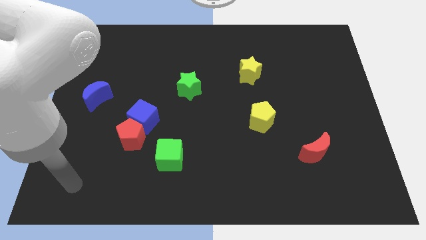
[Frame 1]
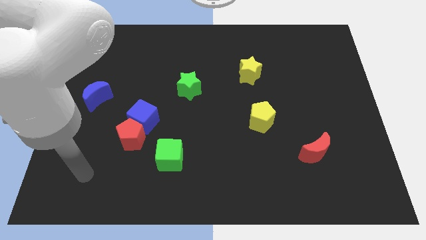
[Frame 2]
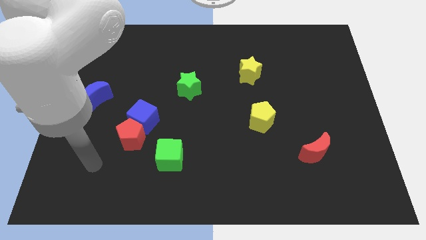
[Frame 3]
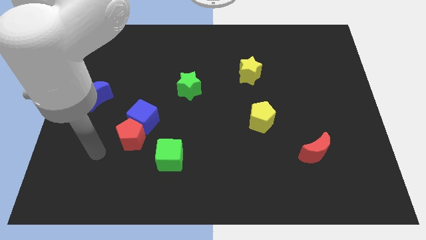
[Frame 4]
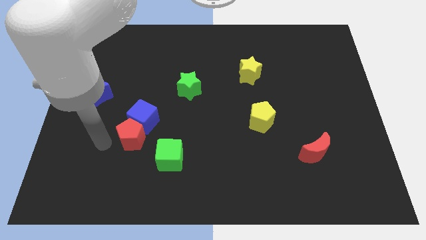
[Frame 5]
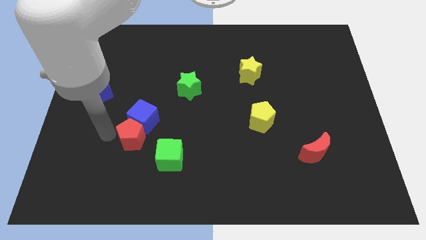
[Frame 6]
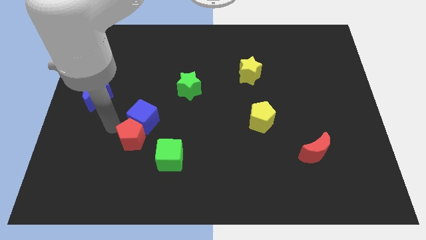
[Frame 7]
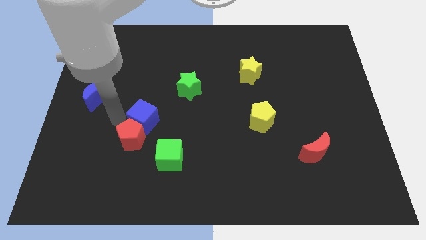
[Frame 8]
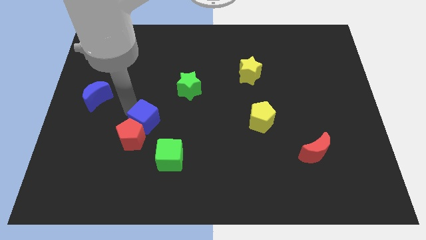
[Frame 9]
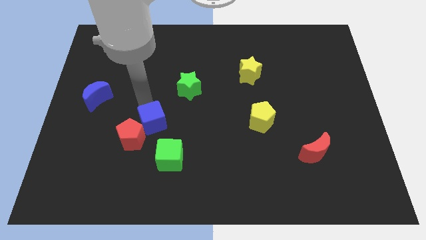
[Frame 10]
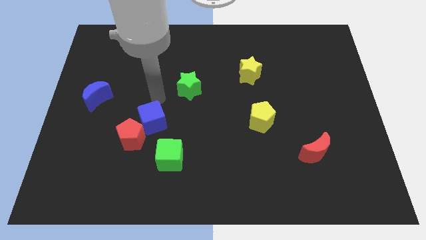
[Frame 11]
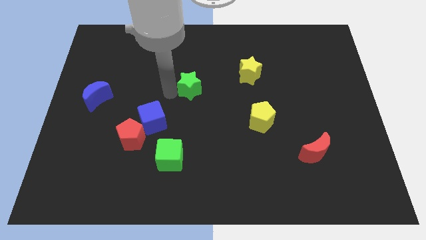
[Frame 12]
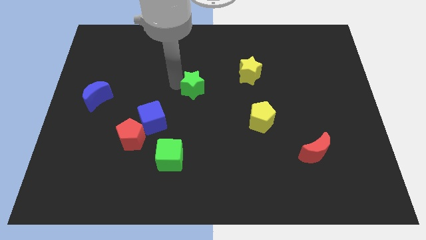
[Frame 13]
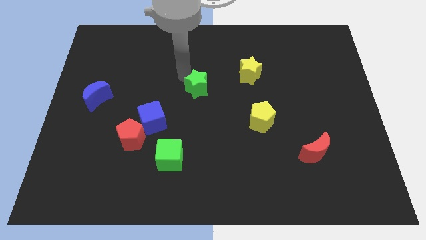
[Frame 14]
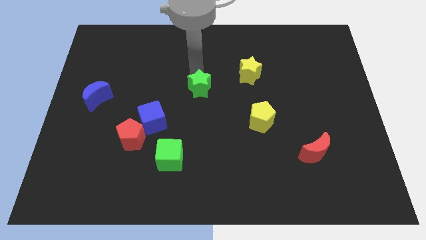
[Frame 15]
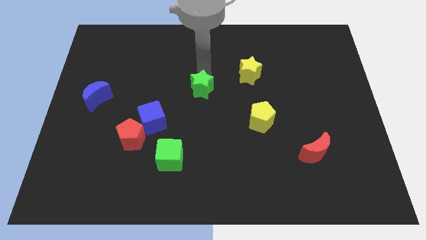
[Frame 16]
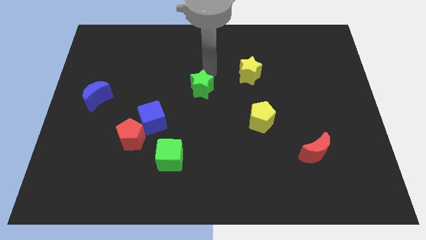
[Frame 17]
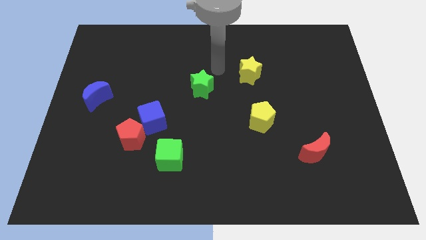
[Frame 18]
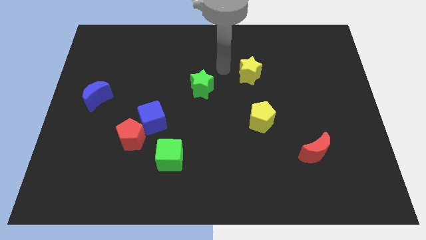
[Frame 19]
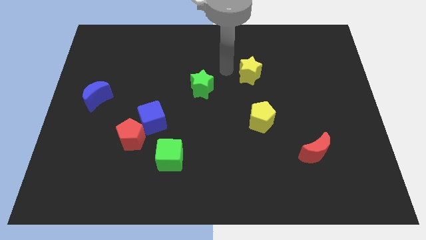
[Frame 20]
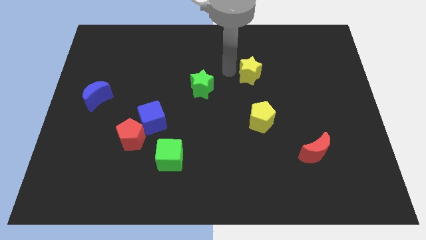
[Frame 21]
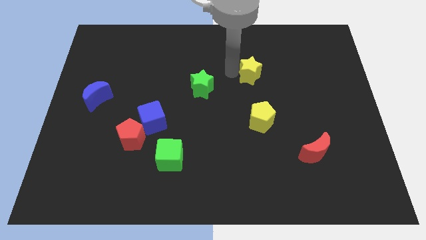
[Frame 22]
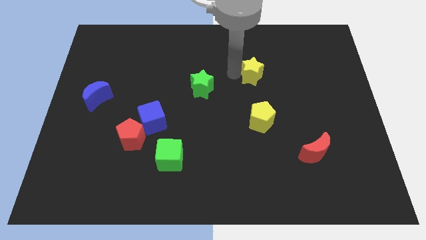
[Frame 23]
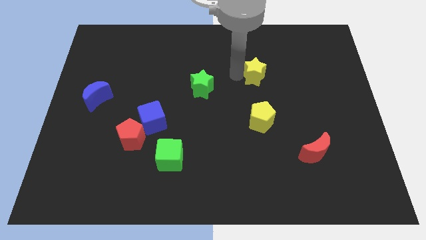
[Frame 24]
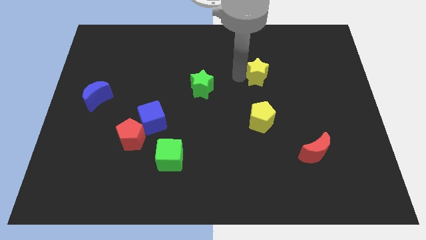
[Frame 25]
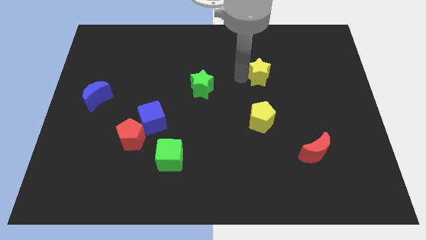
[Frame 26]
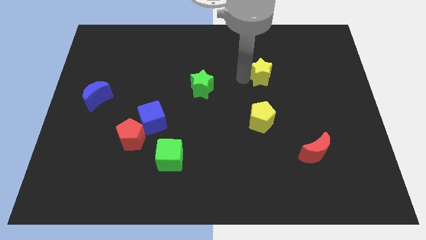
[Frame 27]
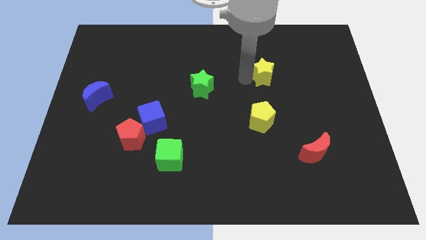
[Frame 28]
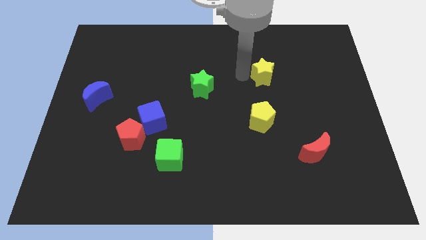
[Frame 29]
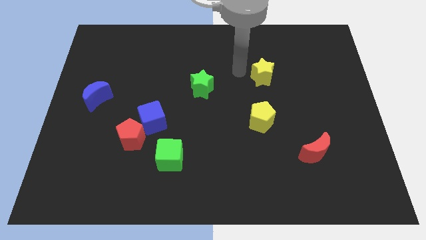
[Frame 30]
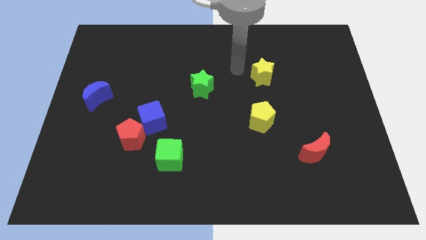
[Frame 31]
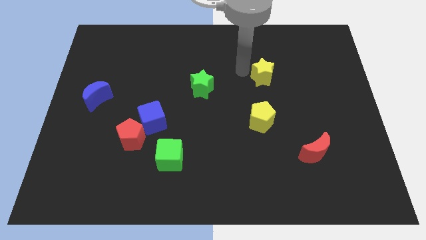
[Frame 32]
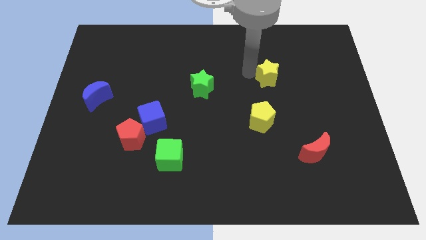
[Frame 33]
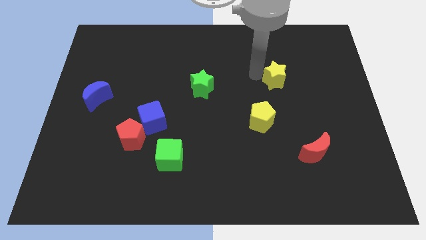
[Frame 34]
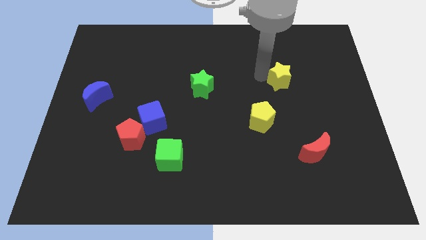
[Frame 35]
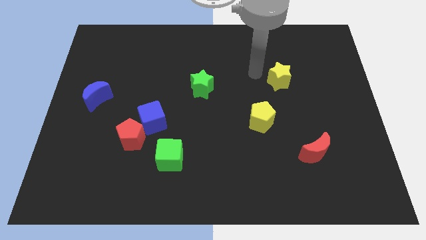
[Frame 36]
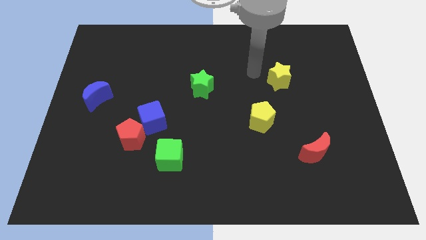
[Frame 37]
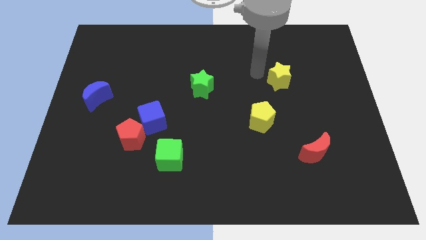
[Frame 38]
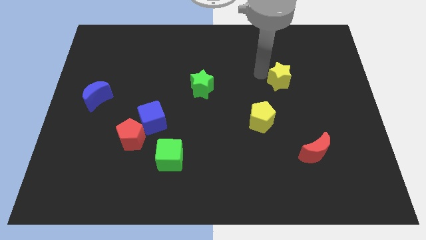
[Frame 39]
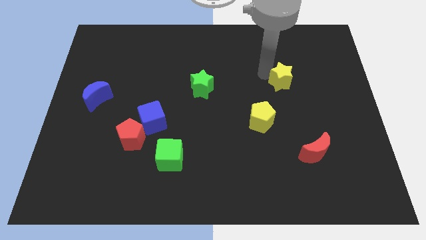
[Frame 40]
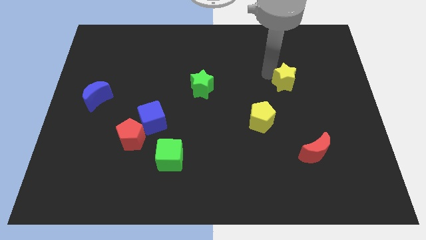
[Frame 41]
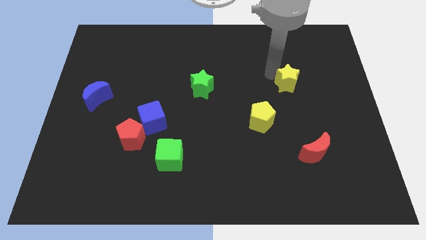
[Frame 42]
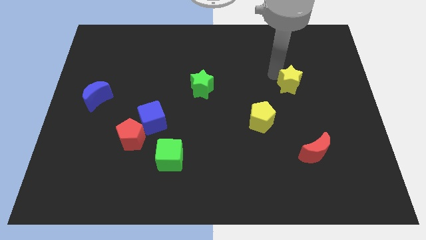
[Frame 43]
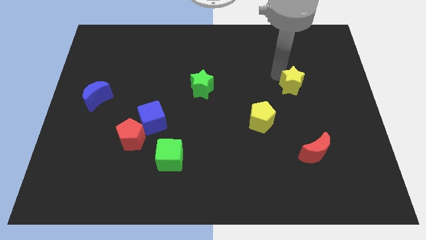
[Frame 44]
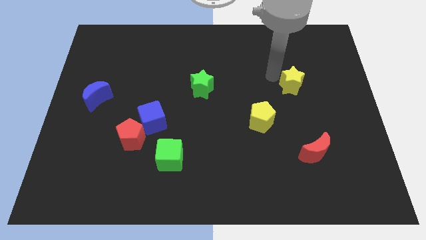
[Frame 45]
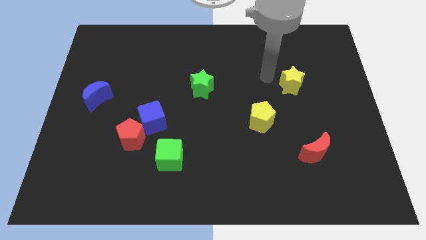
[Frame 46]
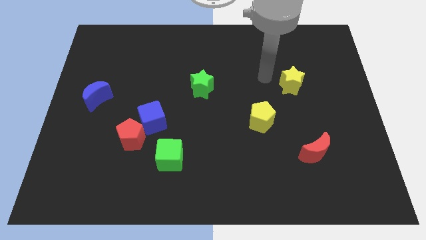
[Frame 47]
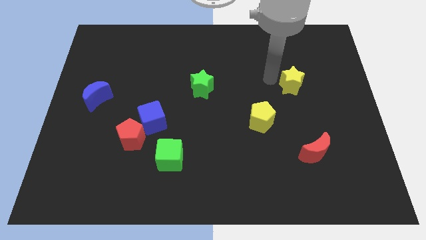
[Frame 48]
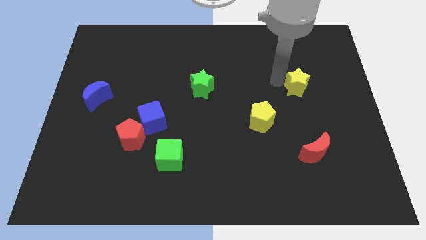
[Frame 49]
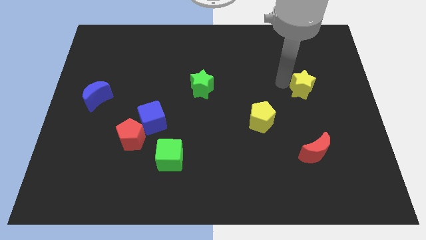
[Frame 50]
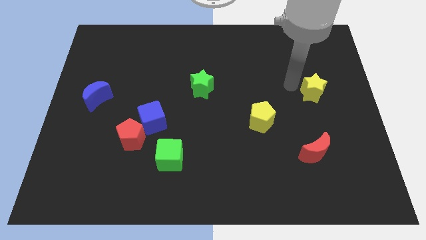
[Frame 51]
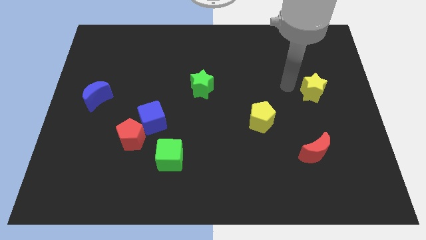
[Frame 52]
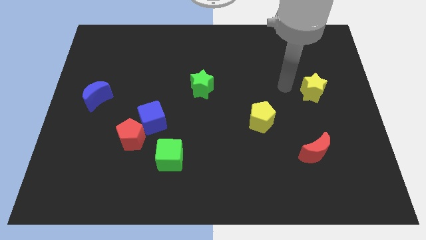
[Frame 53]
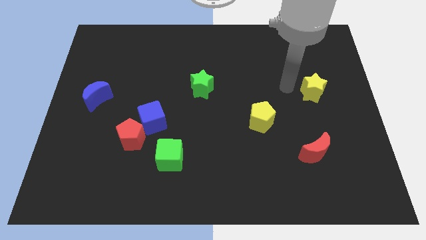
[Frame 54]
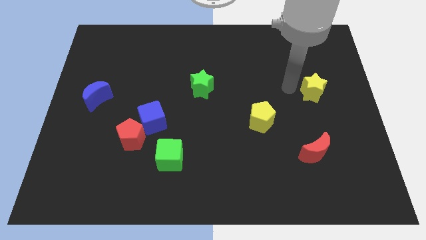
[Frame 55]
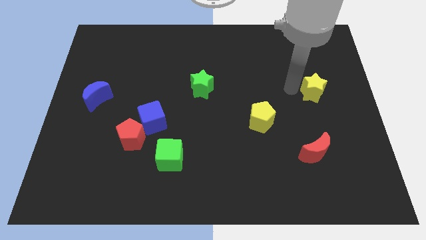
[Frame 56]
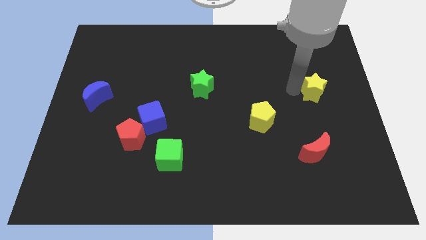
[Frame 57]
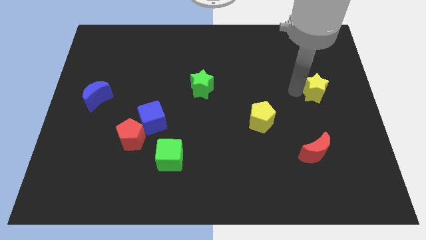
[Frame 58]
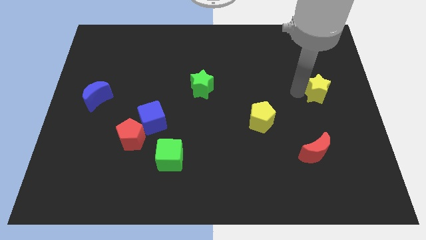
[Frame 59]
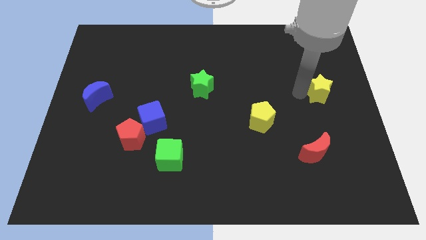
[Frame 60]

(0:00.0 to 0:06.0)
slide the yellow star to the right side of the board
